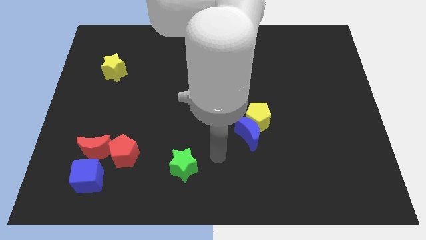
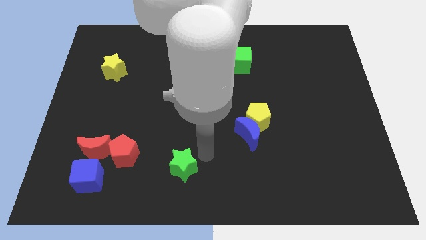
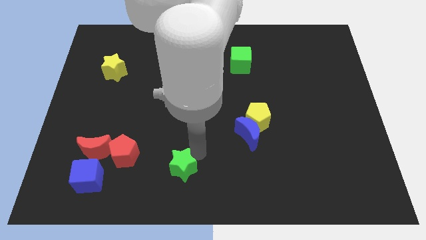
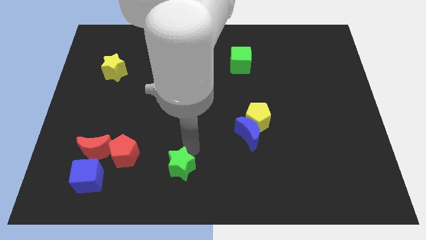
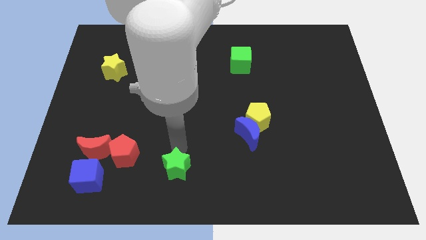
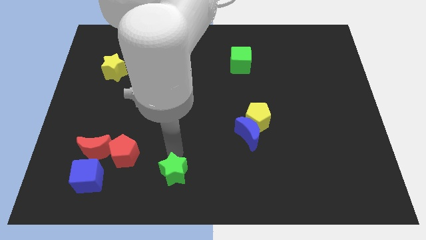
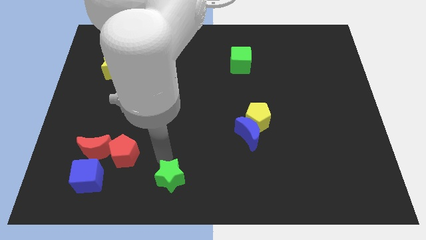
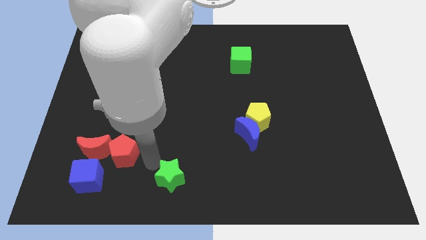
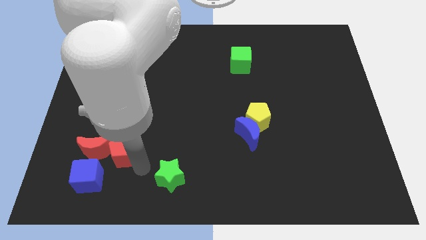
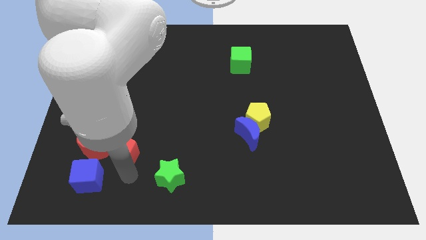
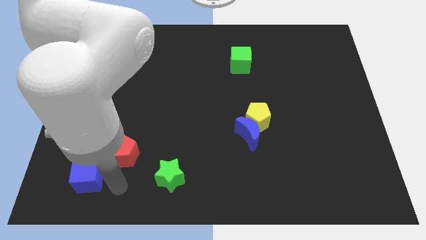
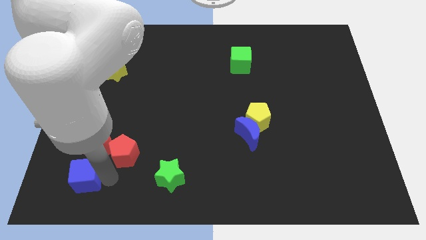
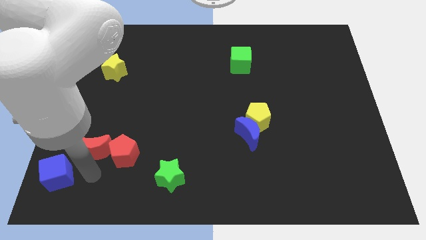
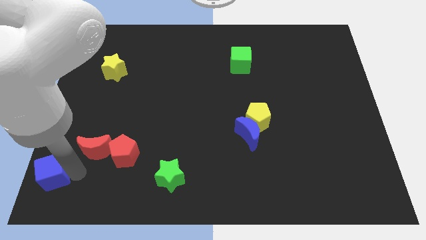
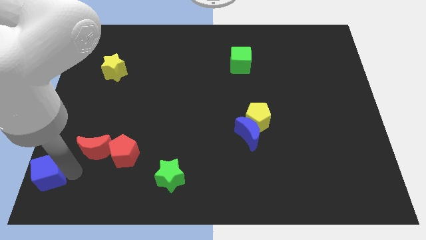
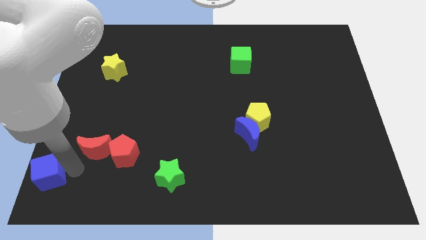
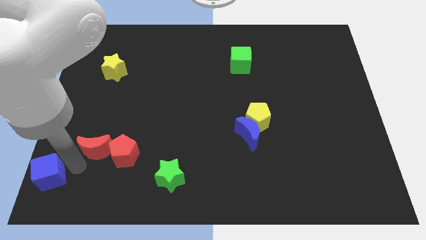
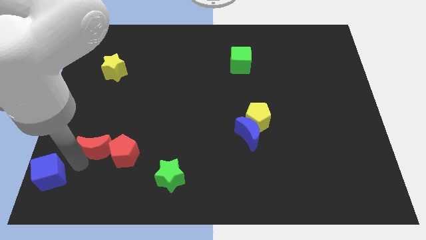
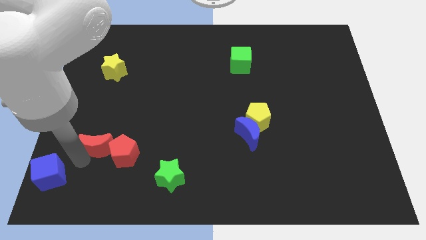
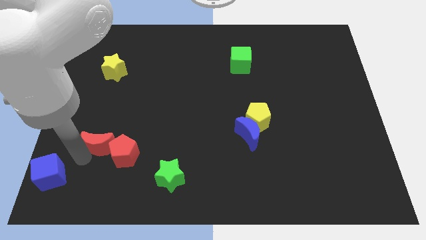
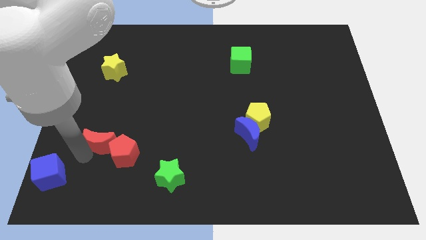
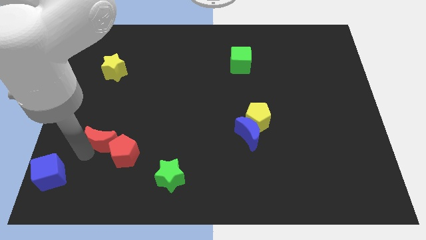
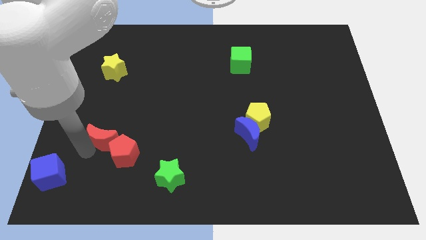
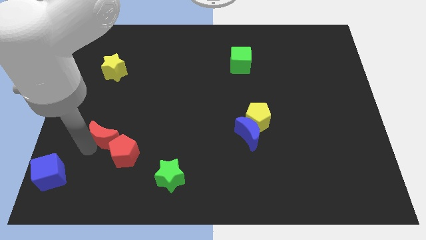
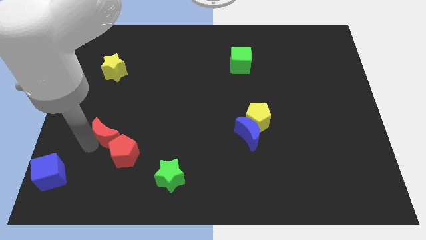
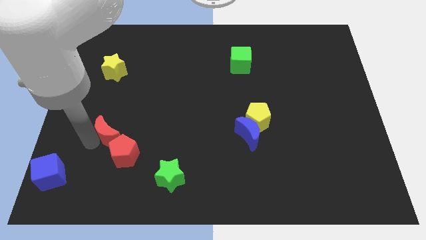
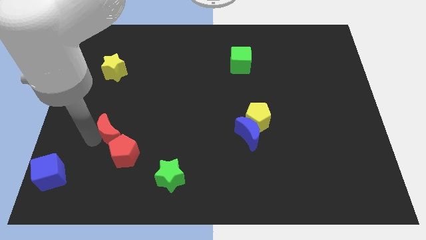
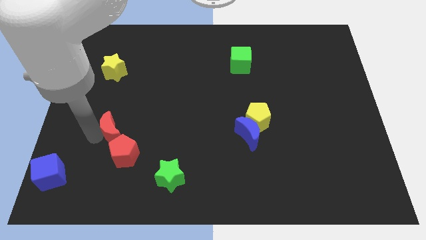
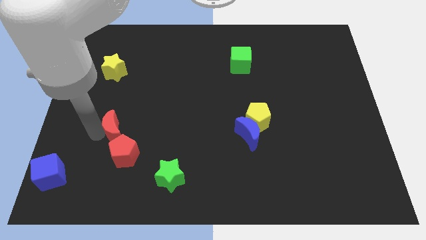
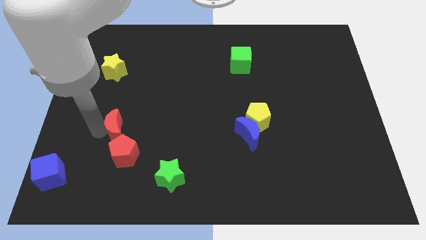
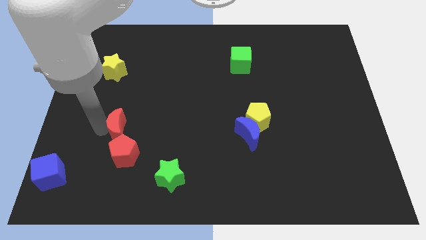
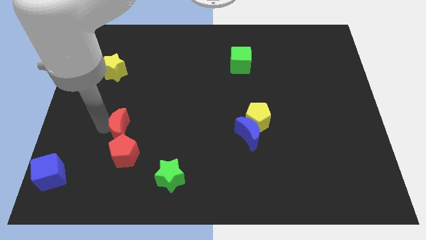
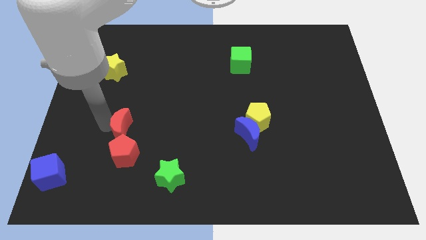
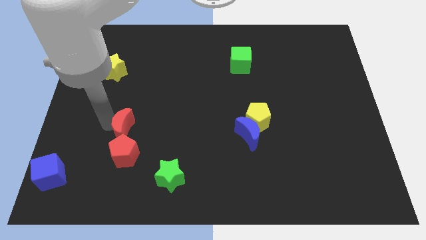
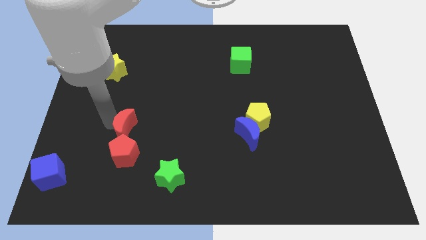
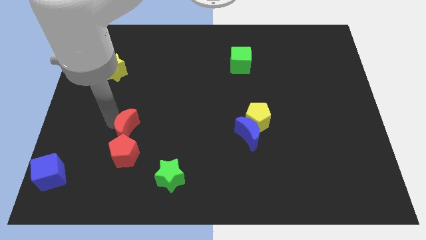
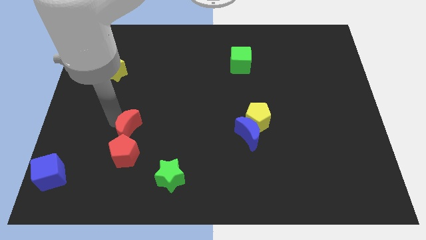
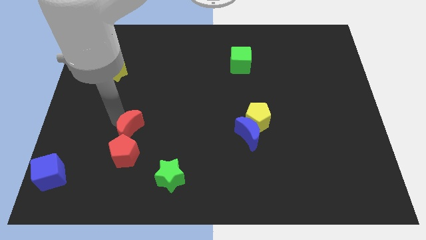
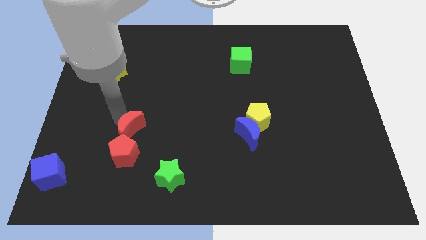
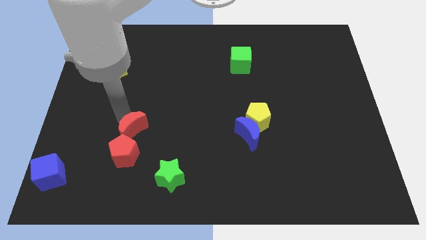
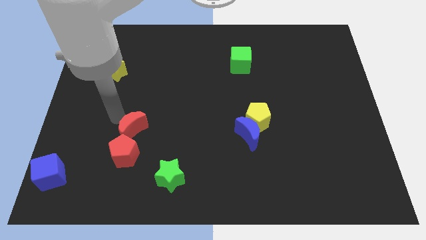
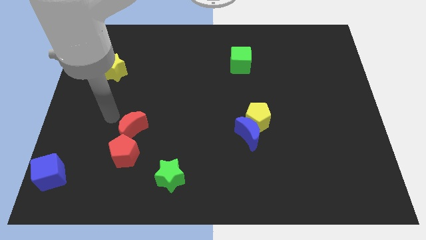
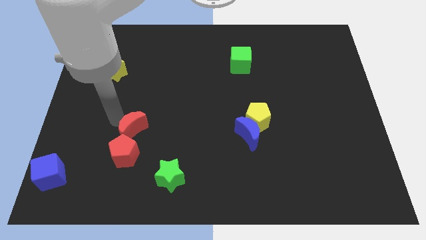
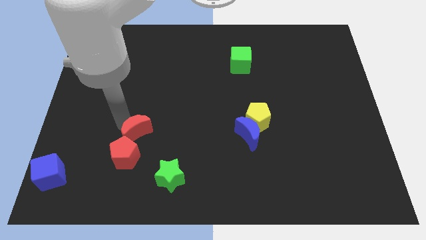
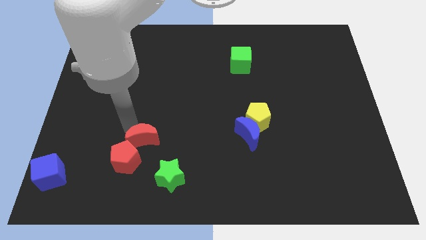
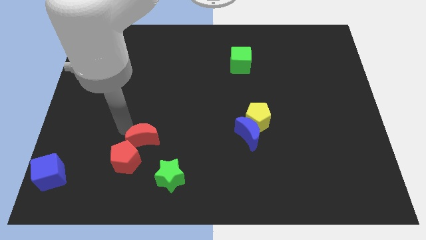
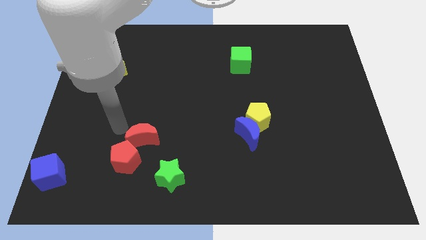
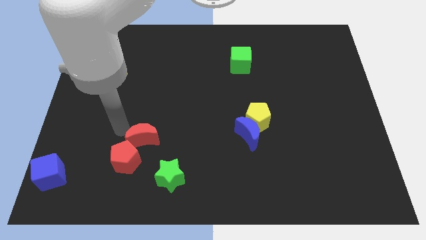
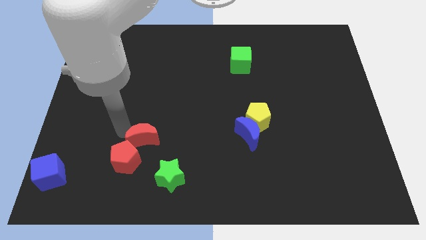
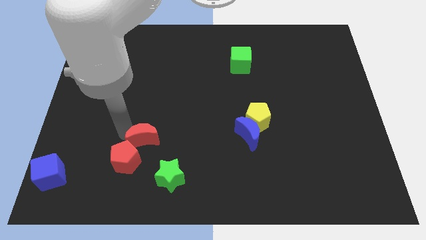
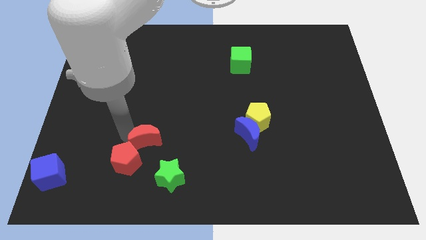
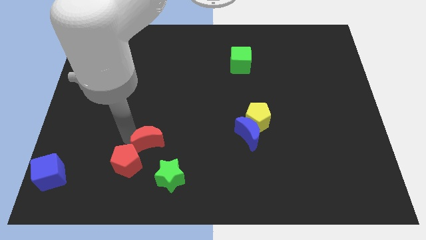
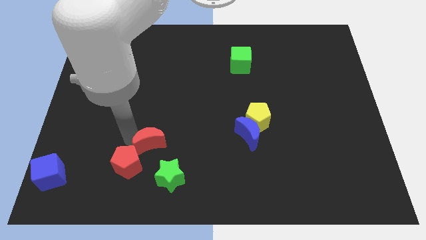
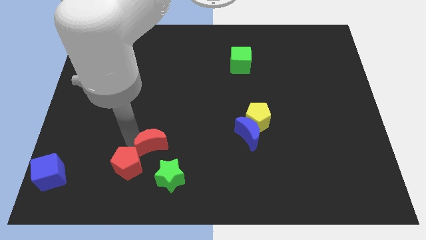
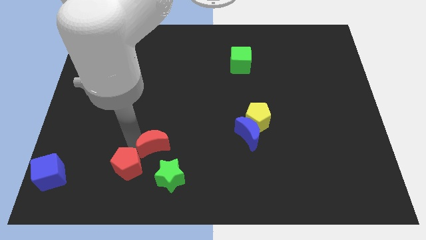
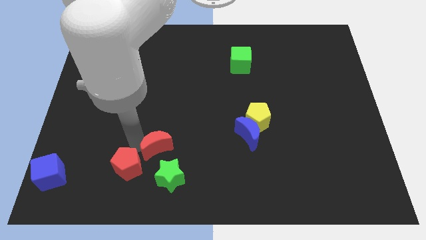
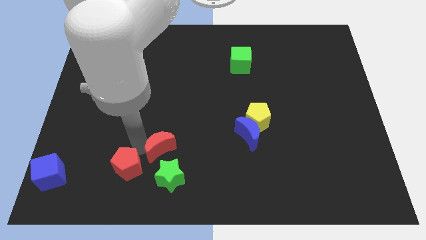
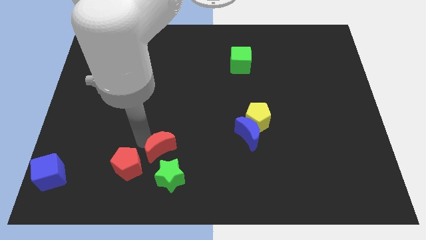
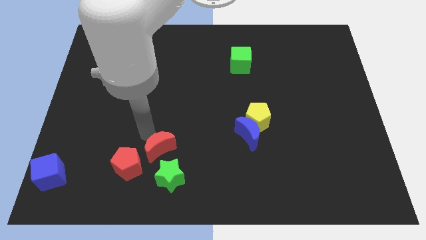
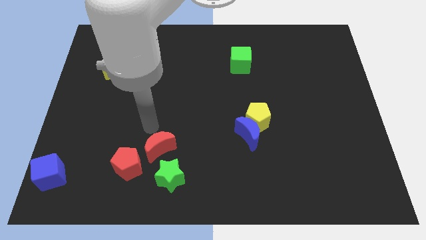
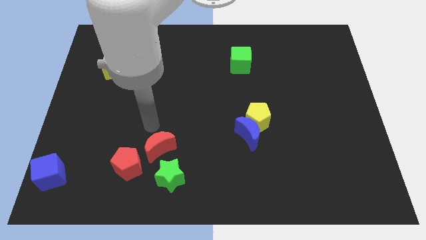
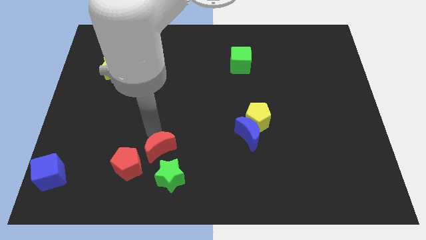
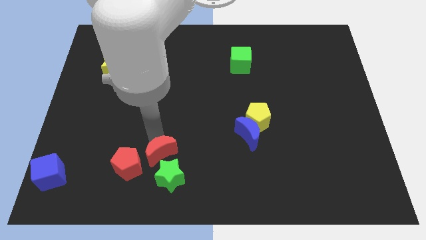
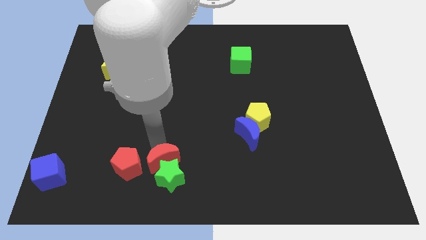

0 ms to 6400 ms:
slide the red moon towards the green star
